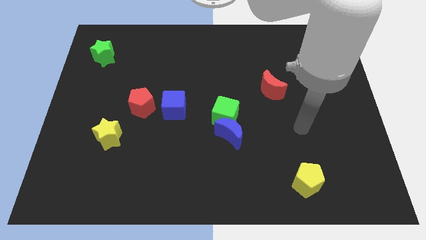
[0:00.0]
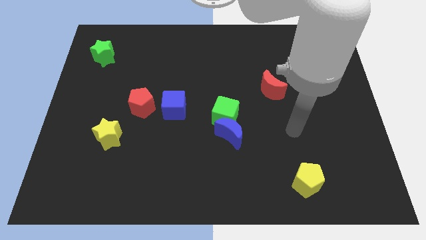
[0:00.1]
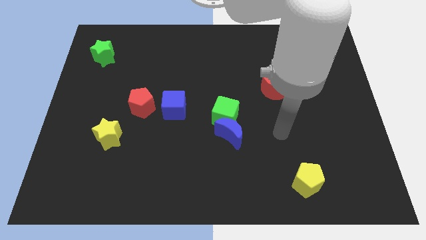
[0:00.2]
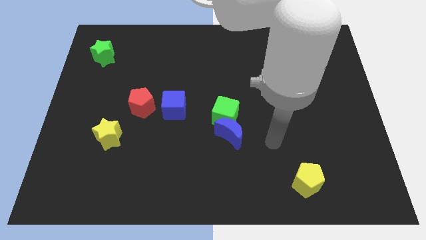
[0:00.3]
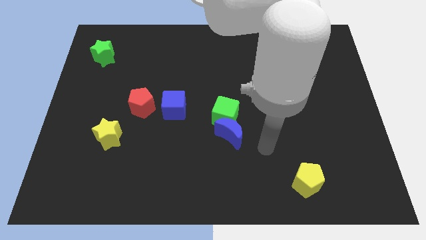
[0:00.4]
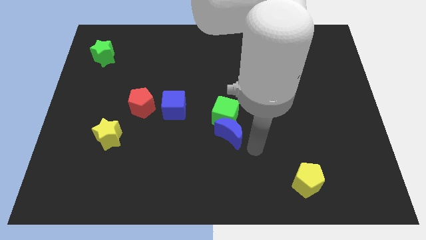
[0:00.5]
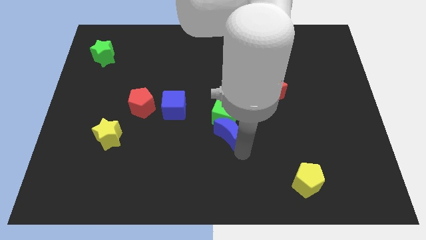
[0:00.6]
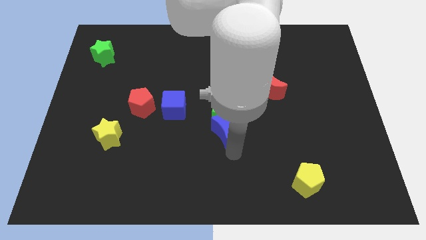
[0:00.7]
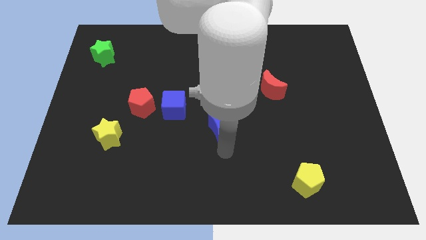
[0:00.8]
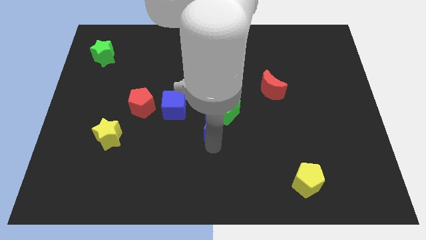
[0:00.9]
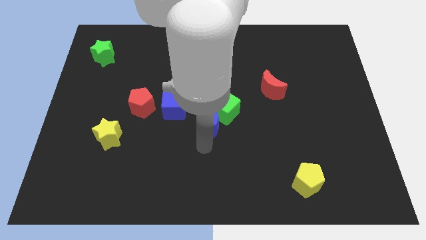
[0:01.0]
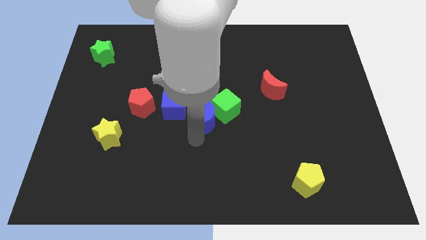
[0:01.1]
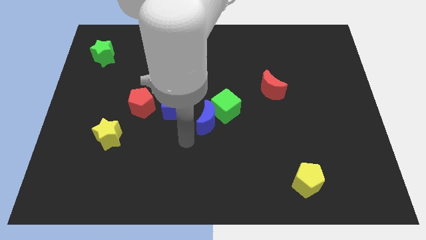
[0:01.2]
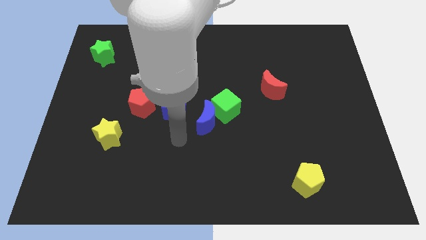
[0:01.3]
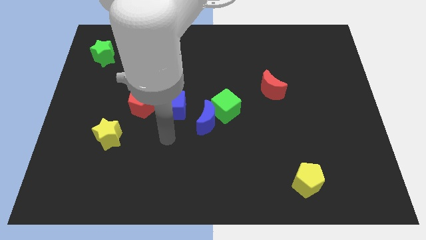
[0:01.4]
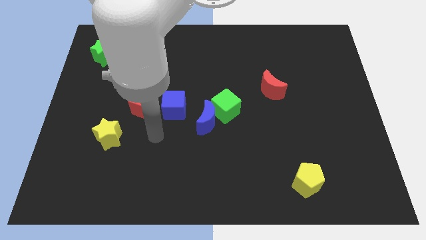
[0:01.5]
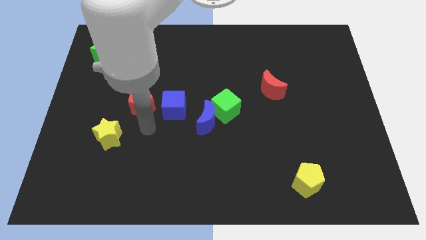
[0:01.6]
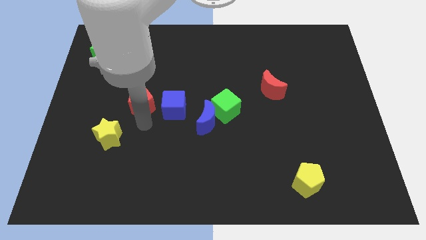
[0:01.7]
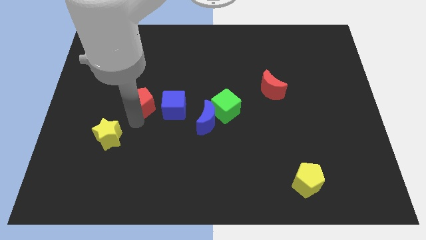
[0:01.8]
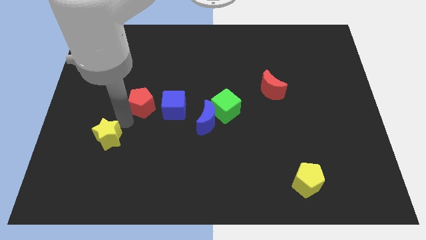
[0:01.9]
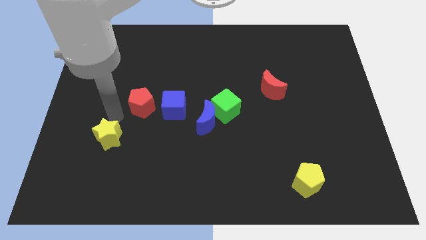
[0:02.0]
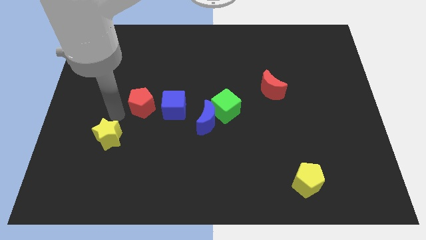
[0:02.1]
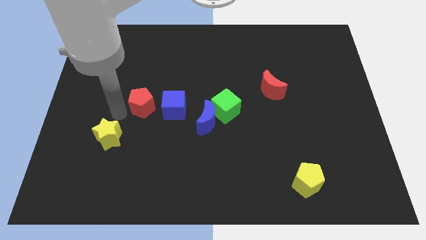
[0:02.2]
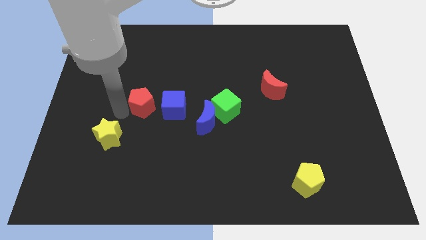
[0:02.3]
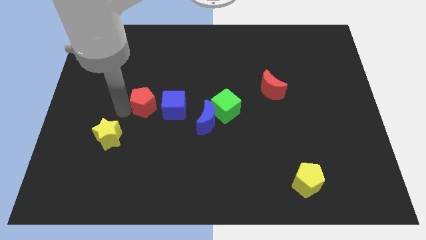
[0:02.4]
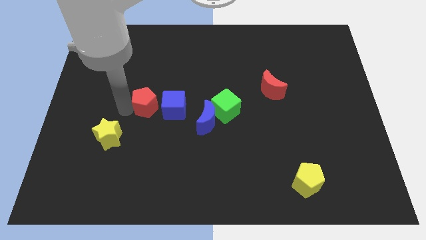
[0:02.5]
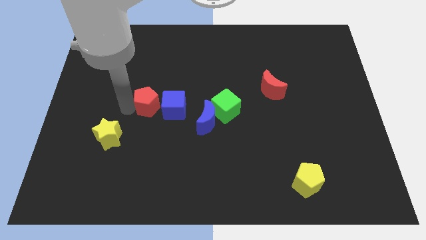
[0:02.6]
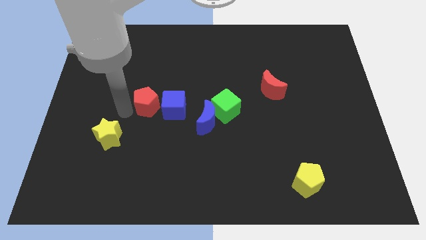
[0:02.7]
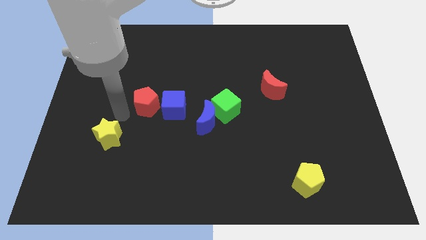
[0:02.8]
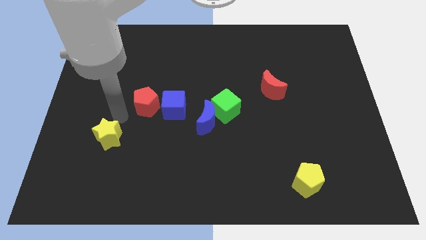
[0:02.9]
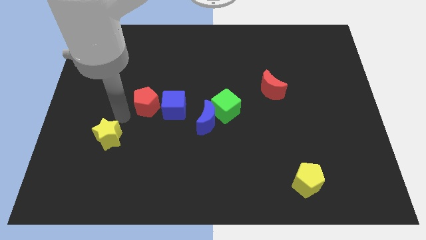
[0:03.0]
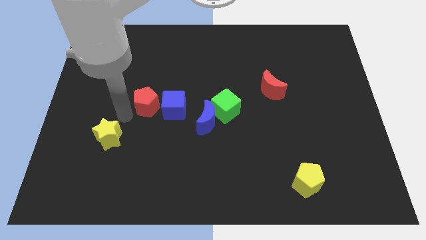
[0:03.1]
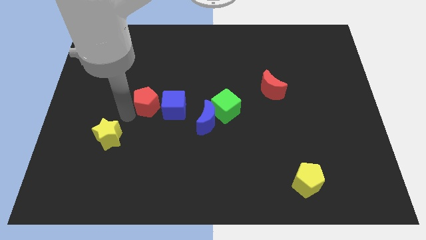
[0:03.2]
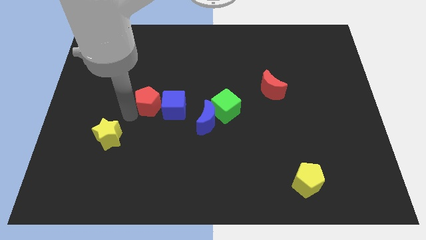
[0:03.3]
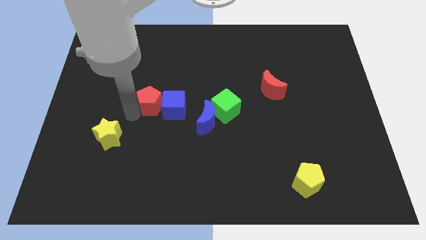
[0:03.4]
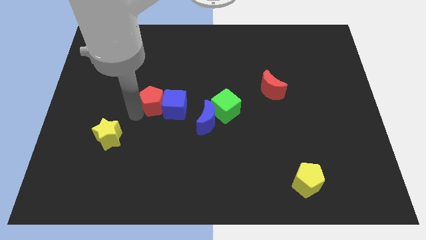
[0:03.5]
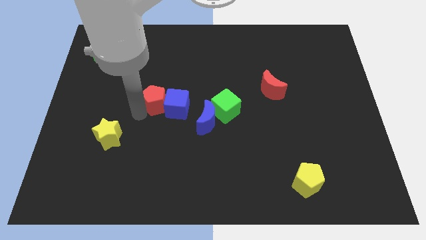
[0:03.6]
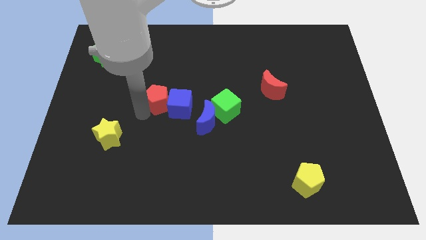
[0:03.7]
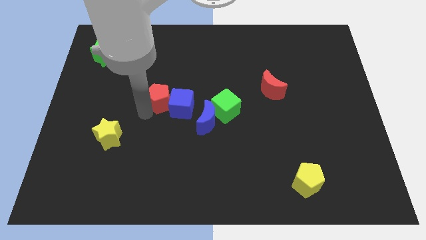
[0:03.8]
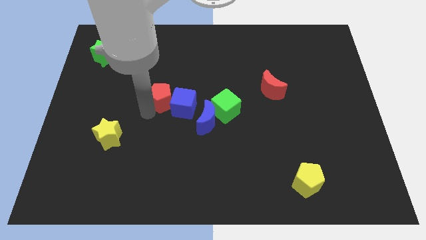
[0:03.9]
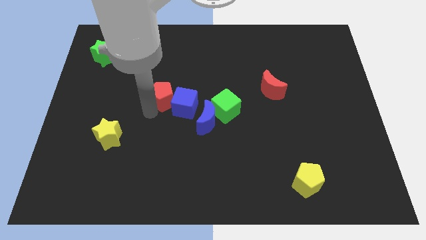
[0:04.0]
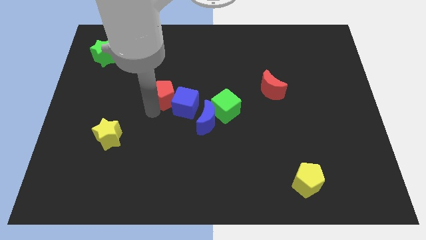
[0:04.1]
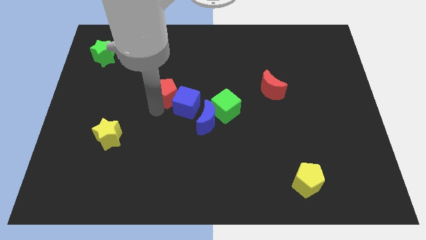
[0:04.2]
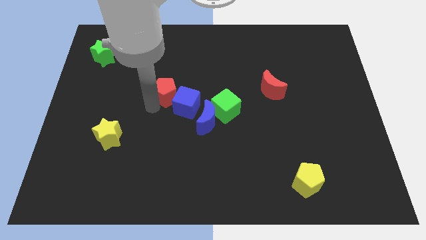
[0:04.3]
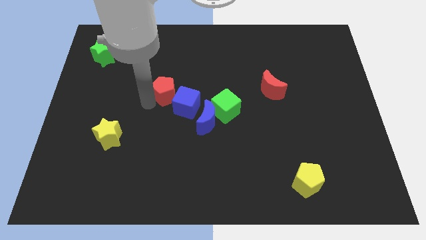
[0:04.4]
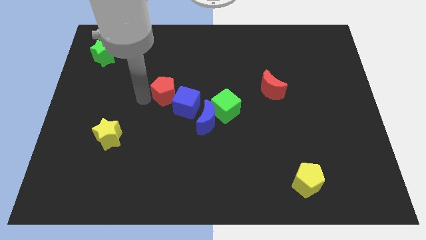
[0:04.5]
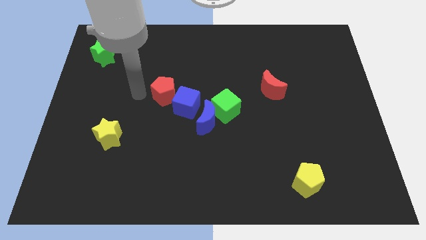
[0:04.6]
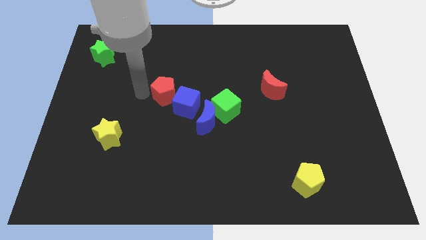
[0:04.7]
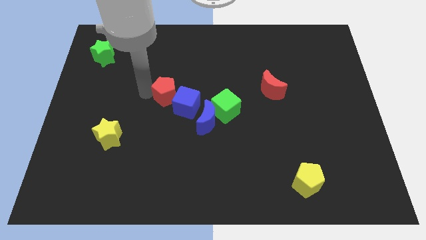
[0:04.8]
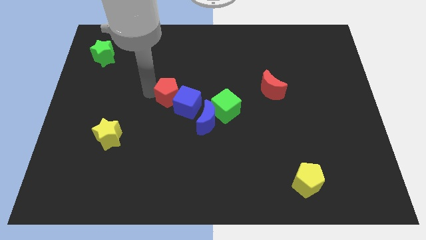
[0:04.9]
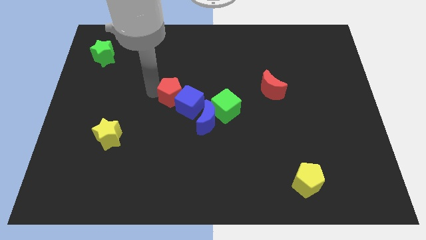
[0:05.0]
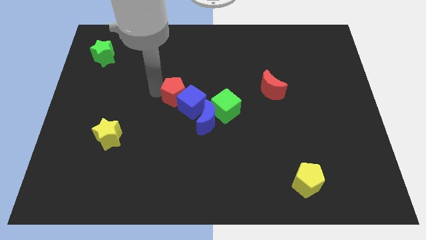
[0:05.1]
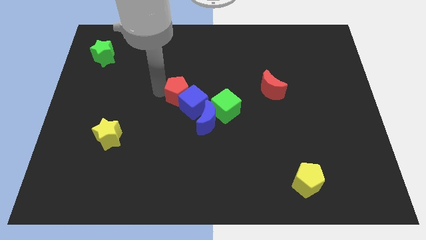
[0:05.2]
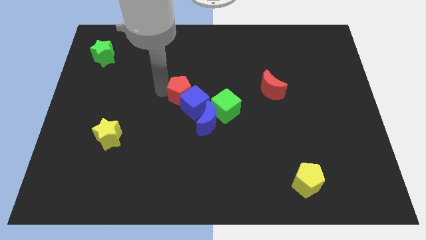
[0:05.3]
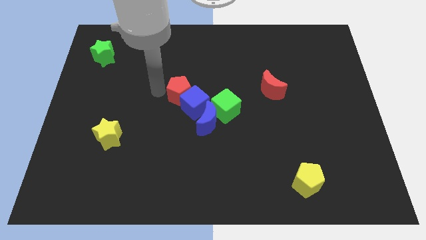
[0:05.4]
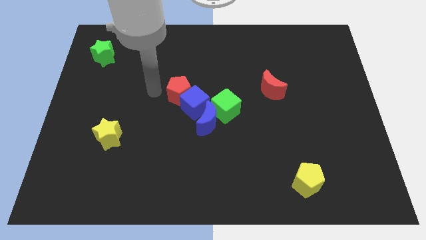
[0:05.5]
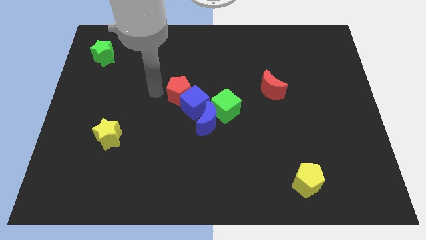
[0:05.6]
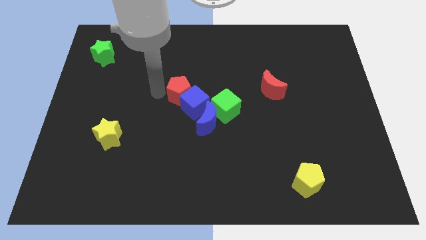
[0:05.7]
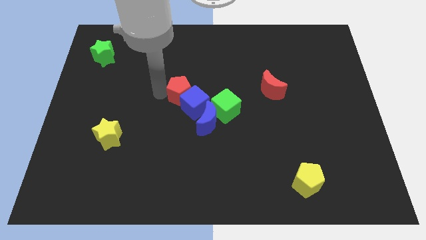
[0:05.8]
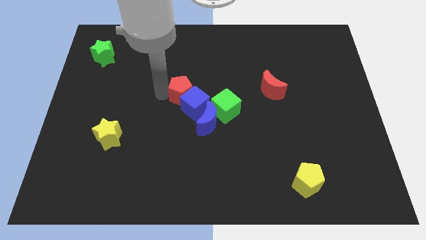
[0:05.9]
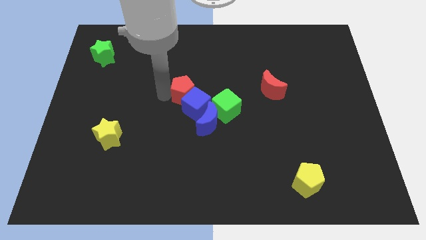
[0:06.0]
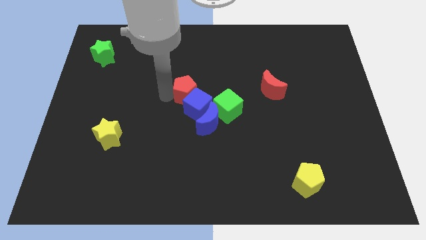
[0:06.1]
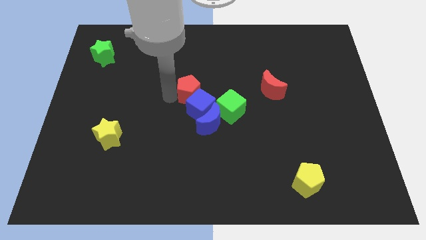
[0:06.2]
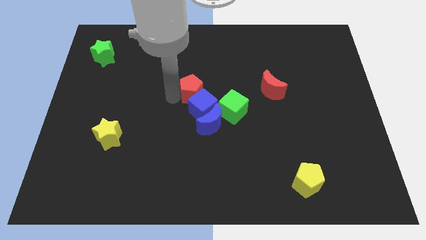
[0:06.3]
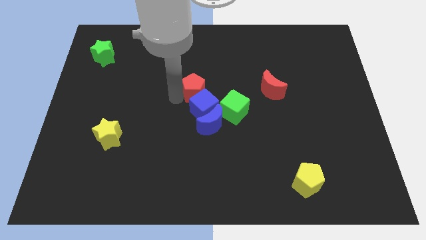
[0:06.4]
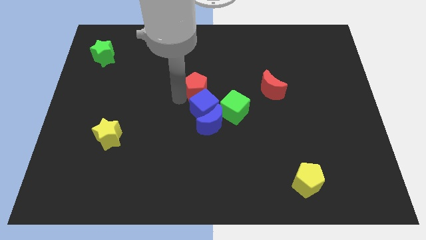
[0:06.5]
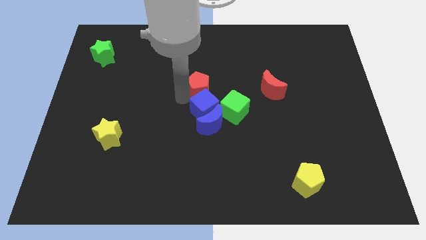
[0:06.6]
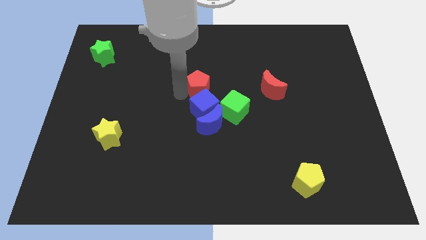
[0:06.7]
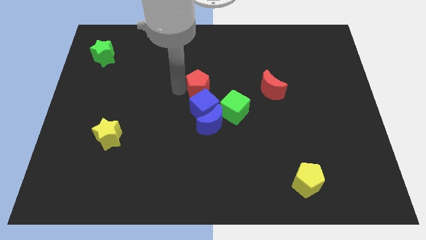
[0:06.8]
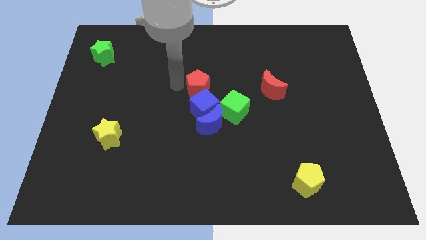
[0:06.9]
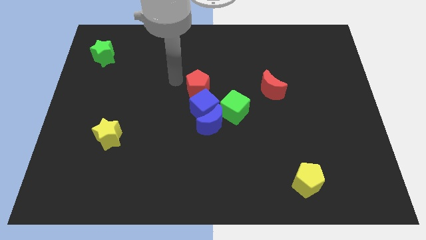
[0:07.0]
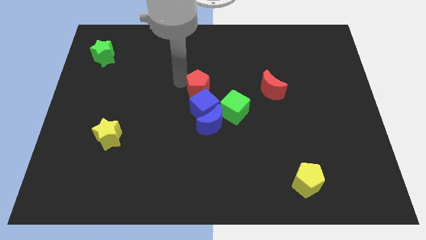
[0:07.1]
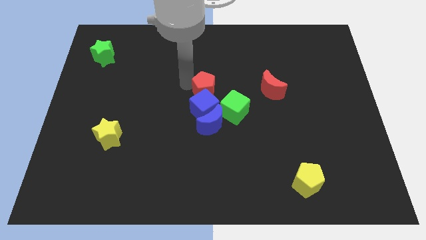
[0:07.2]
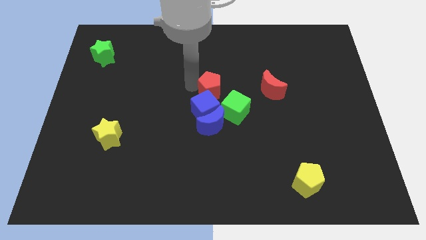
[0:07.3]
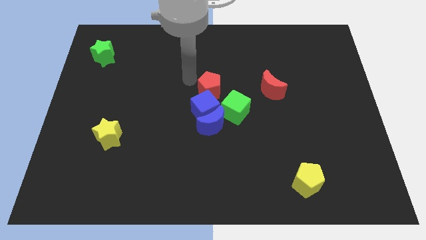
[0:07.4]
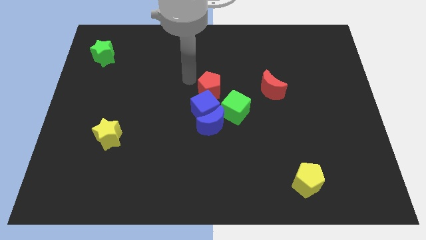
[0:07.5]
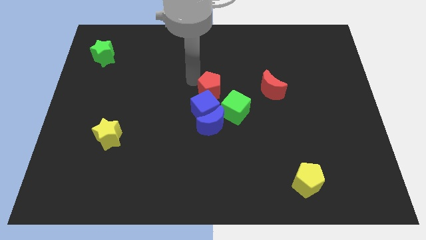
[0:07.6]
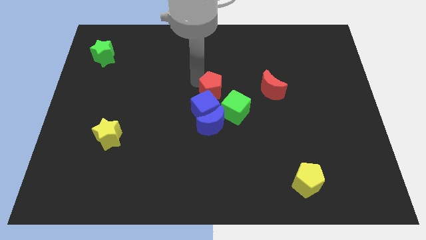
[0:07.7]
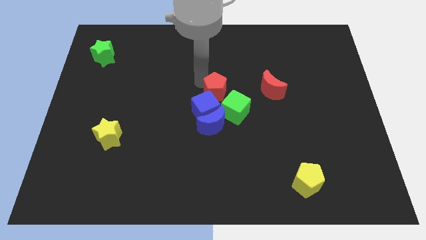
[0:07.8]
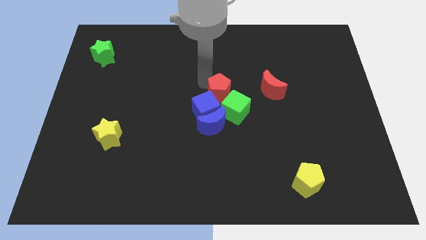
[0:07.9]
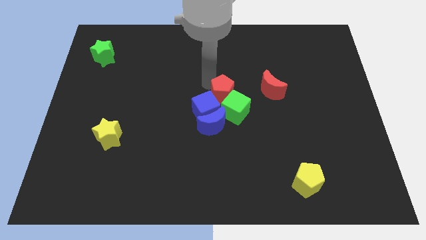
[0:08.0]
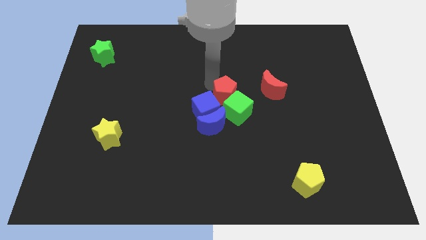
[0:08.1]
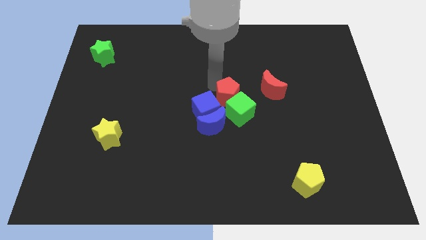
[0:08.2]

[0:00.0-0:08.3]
move the red pentagon right
